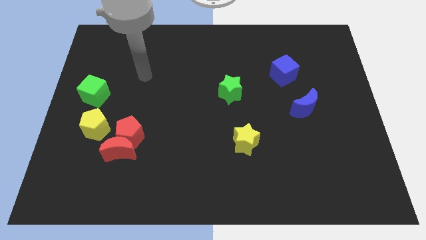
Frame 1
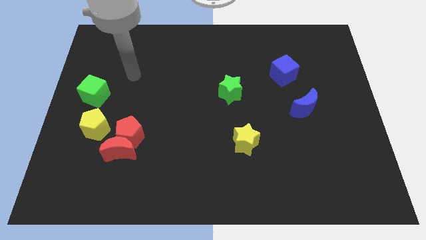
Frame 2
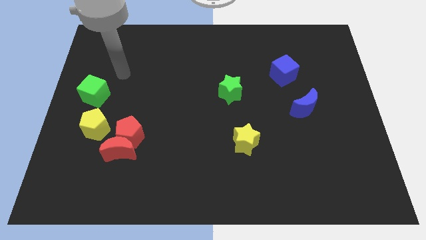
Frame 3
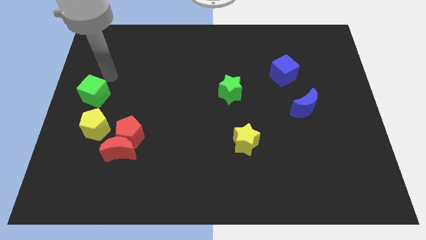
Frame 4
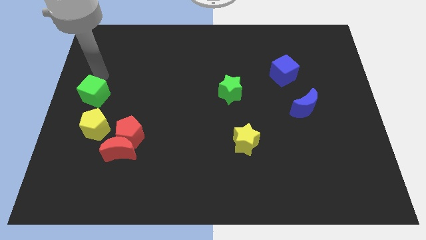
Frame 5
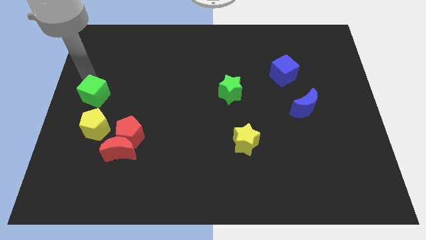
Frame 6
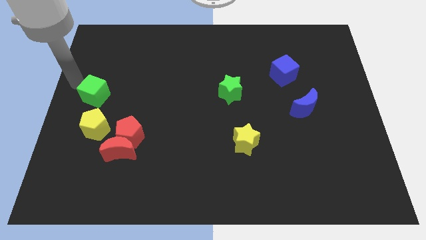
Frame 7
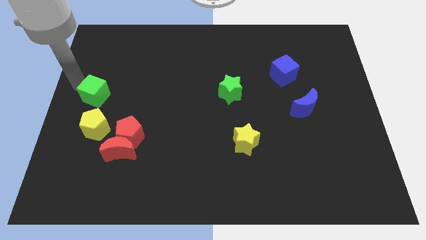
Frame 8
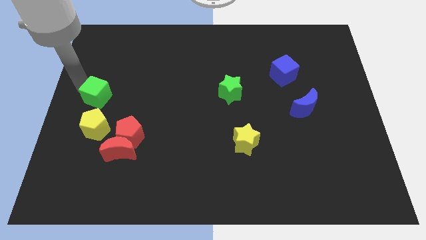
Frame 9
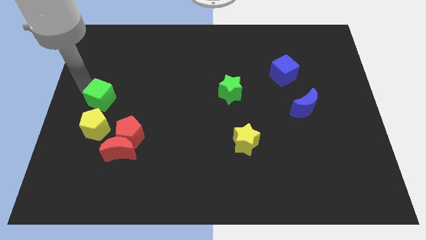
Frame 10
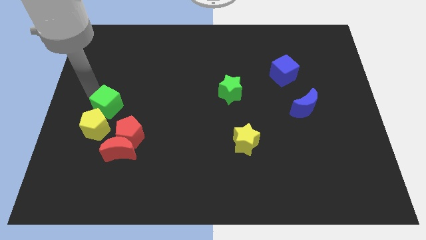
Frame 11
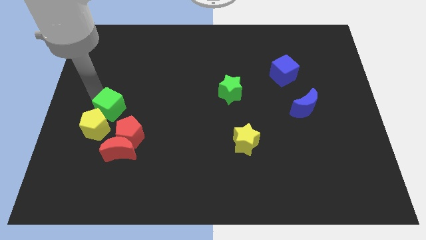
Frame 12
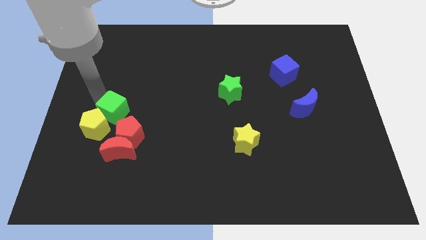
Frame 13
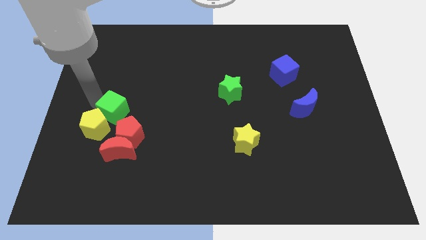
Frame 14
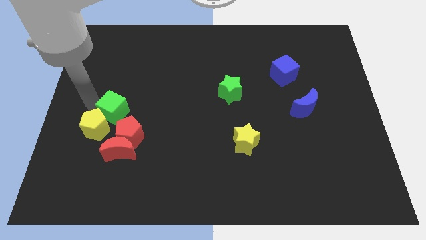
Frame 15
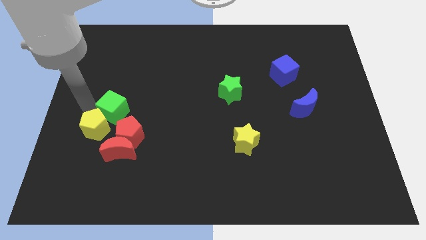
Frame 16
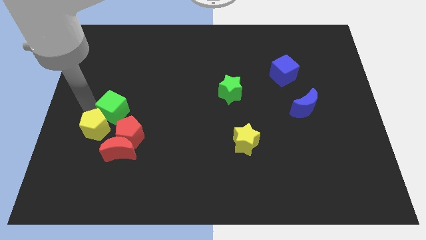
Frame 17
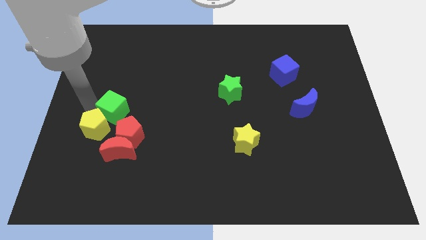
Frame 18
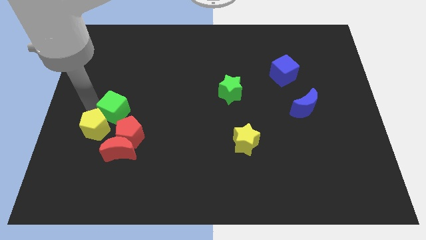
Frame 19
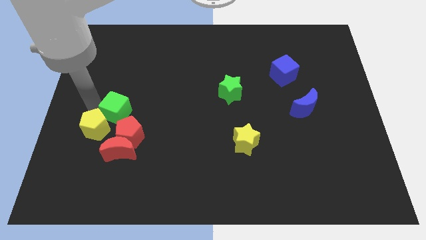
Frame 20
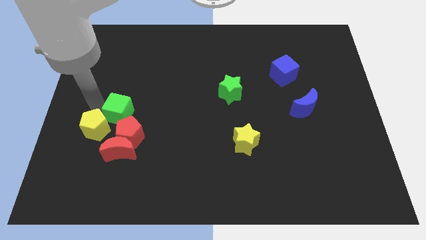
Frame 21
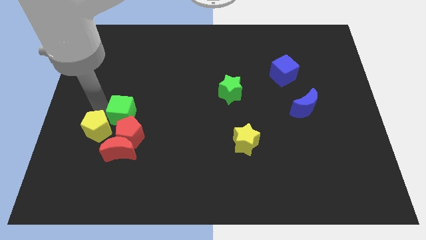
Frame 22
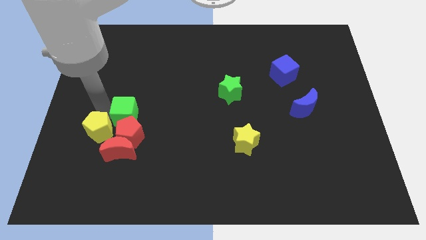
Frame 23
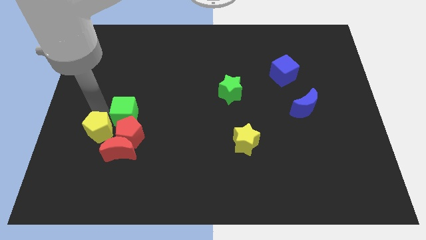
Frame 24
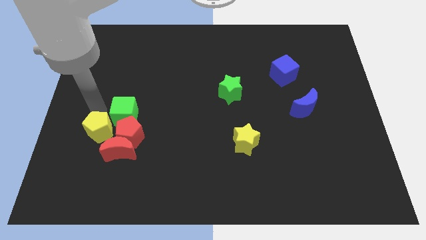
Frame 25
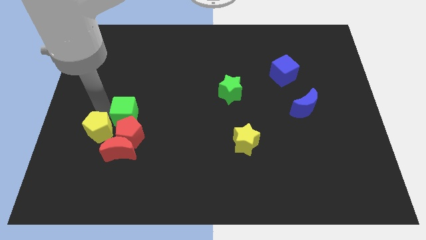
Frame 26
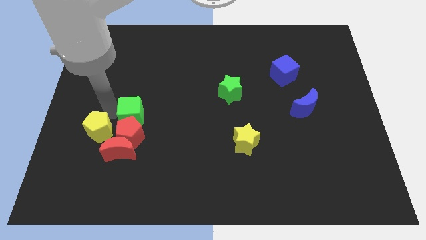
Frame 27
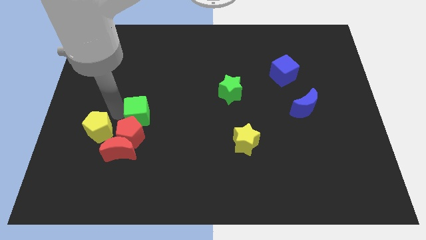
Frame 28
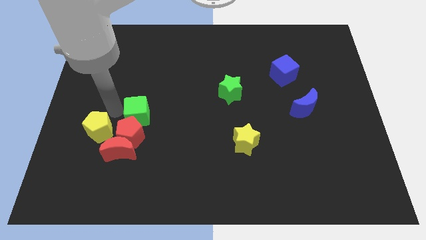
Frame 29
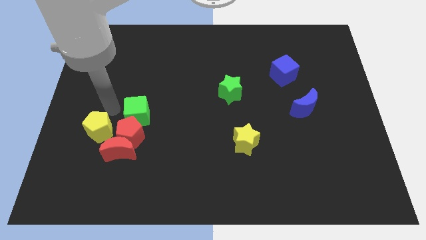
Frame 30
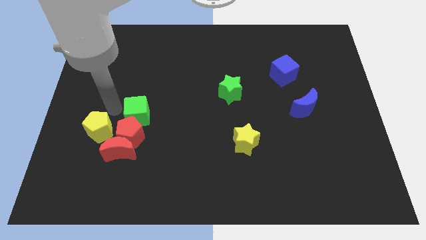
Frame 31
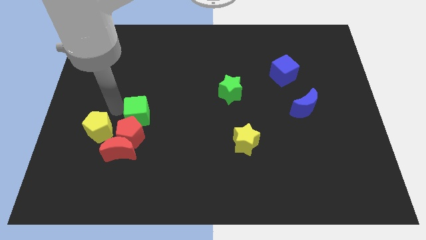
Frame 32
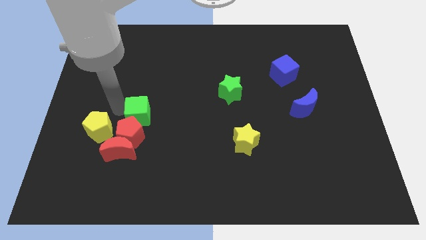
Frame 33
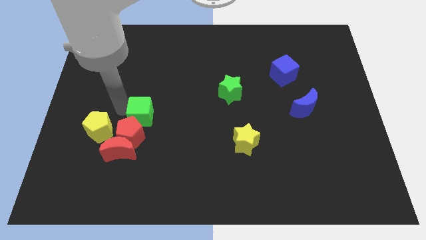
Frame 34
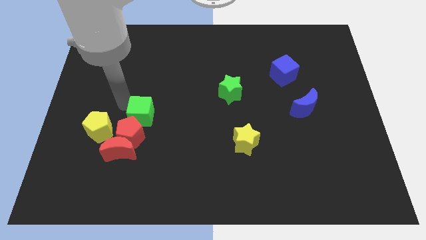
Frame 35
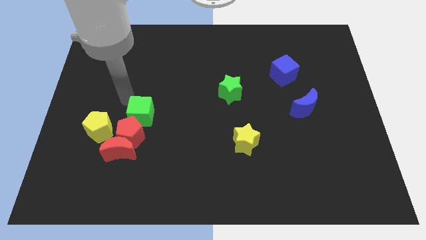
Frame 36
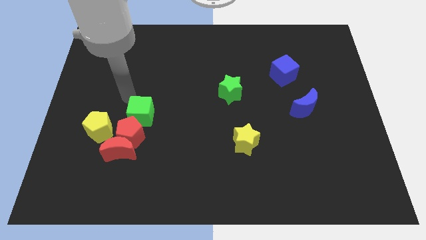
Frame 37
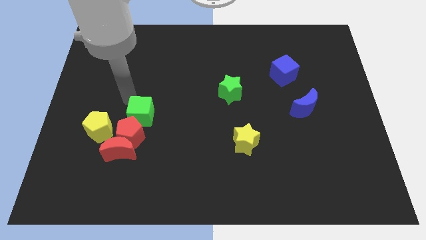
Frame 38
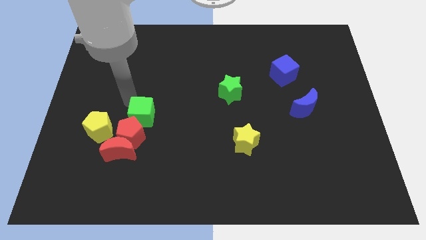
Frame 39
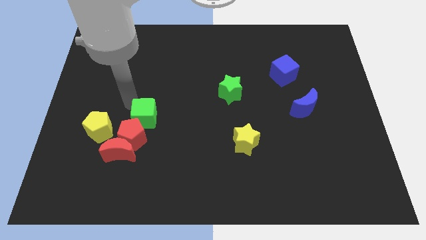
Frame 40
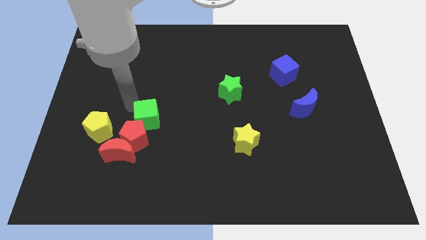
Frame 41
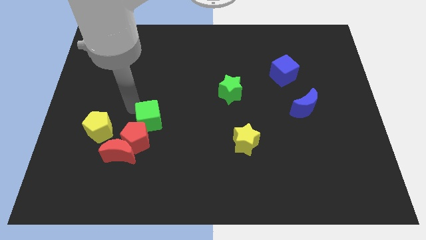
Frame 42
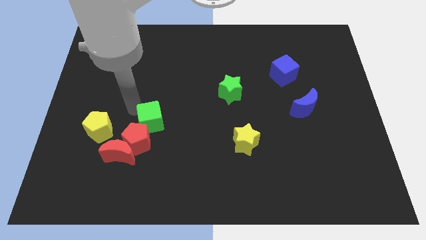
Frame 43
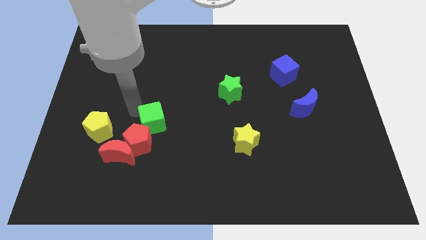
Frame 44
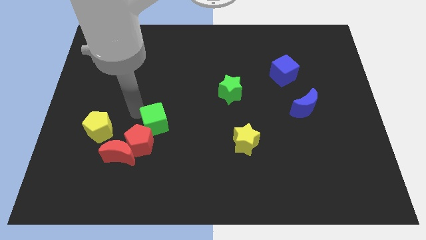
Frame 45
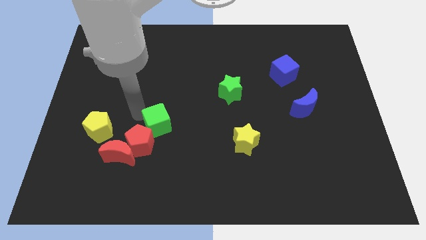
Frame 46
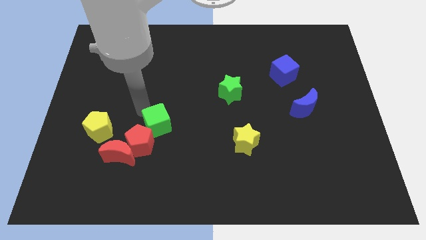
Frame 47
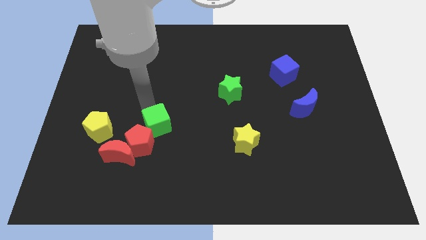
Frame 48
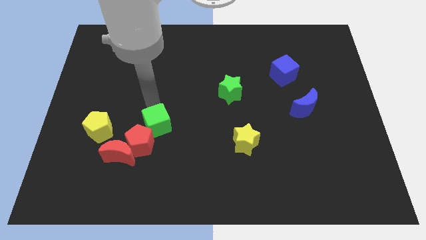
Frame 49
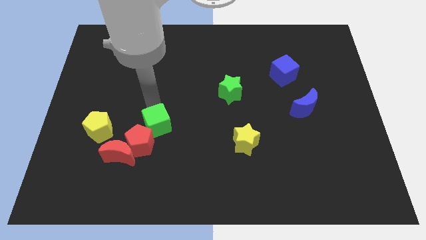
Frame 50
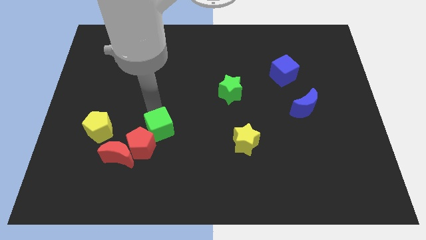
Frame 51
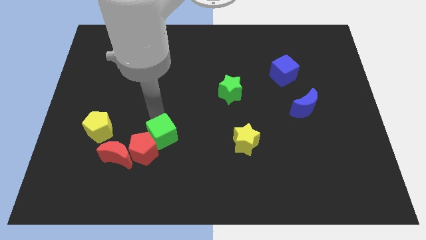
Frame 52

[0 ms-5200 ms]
slide the green cube diagonally down and right

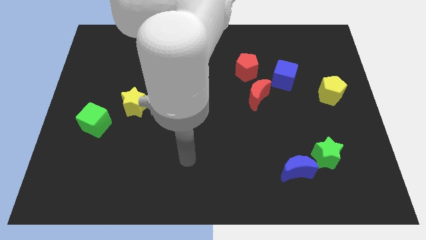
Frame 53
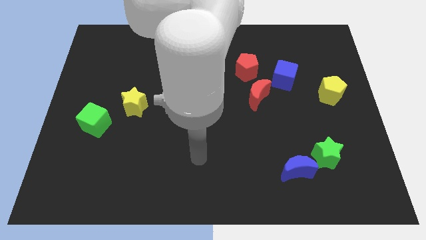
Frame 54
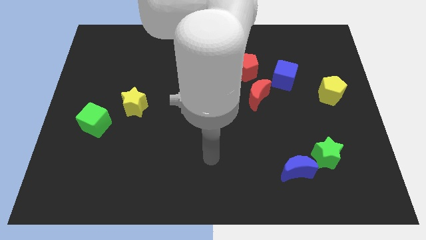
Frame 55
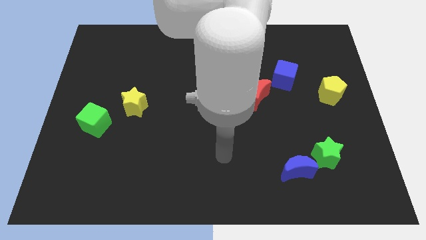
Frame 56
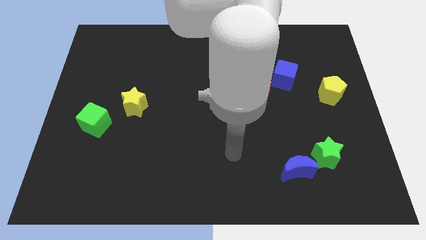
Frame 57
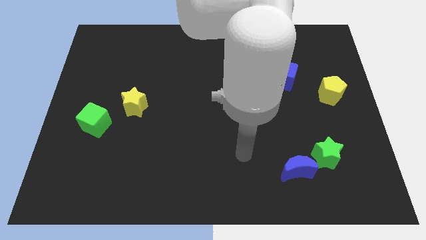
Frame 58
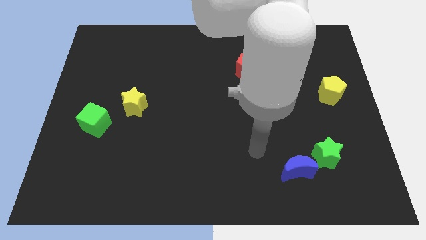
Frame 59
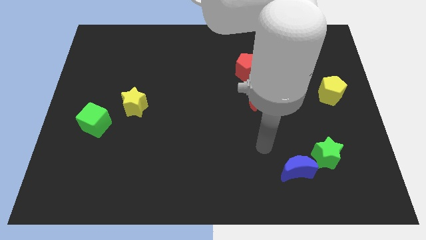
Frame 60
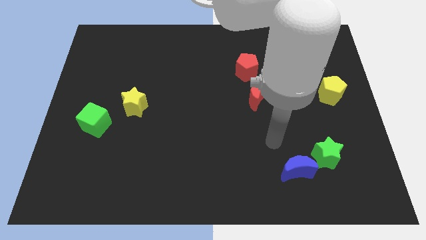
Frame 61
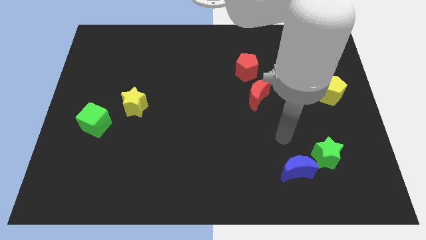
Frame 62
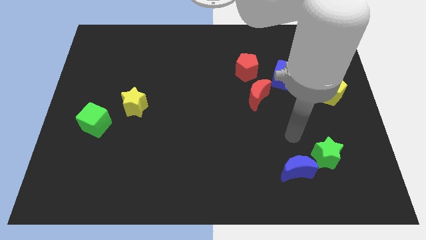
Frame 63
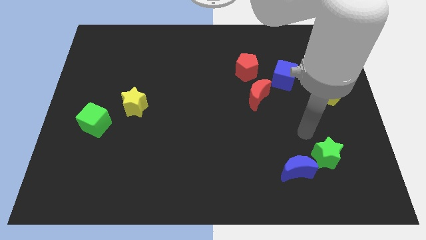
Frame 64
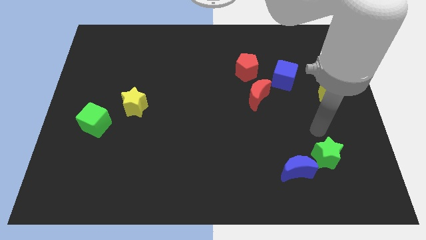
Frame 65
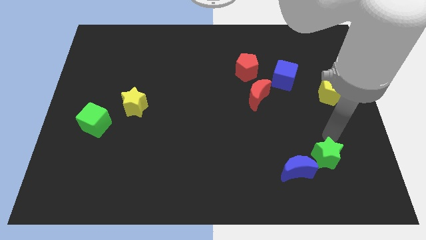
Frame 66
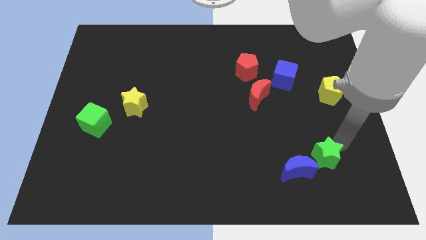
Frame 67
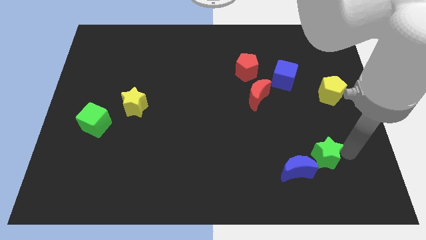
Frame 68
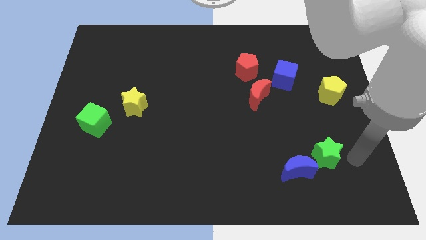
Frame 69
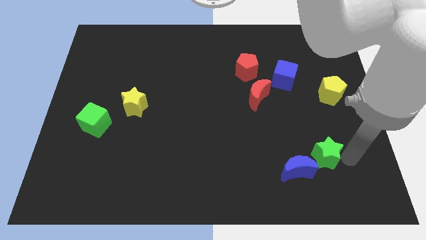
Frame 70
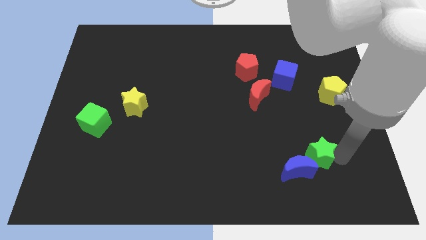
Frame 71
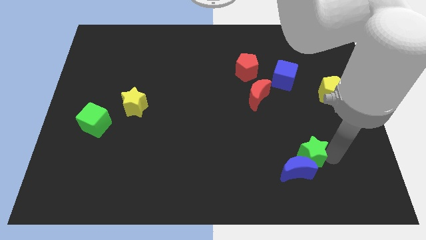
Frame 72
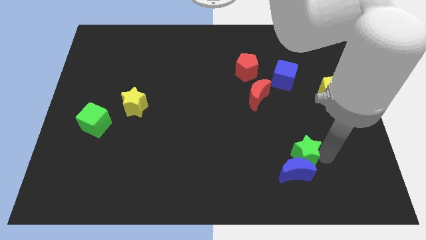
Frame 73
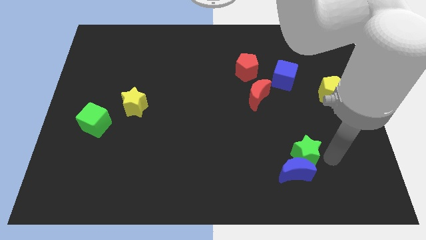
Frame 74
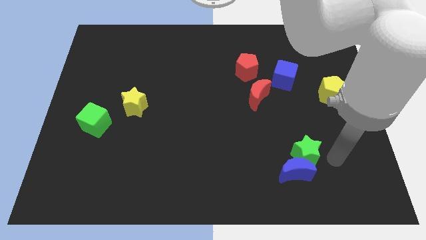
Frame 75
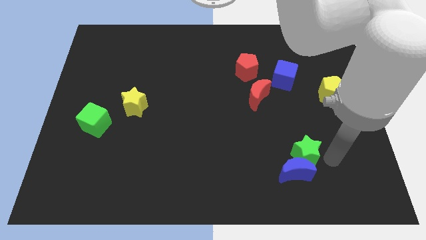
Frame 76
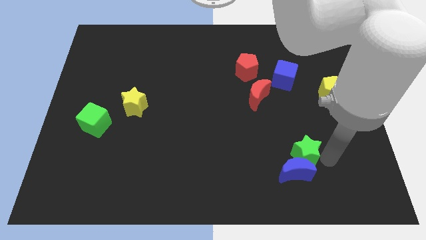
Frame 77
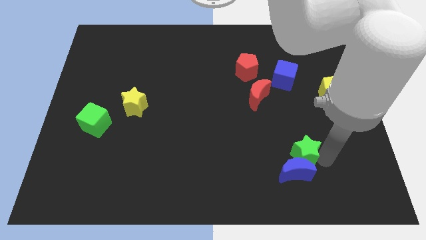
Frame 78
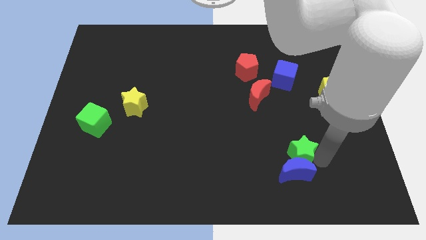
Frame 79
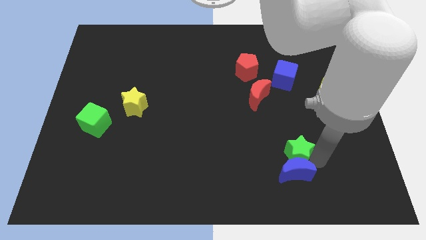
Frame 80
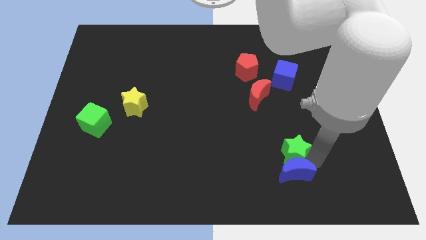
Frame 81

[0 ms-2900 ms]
slide the green star to the left a bit
